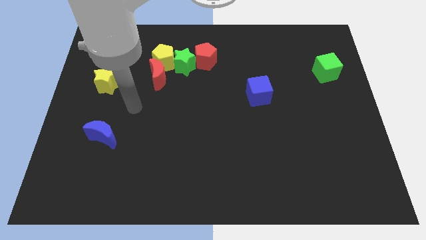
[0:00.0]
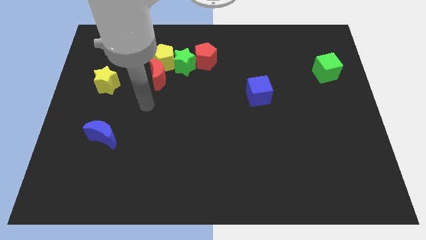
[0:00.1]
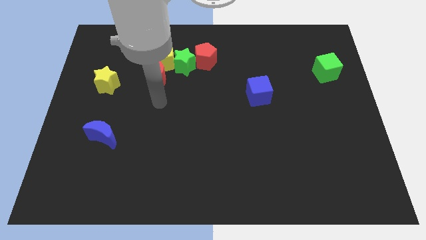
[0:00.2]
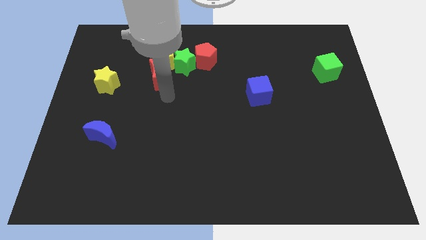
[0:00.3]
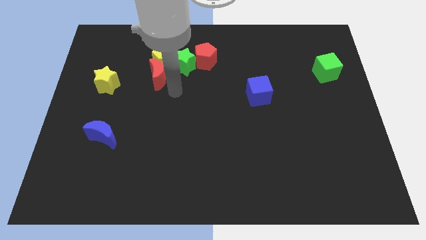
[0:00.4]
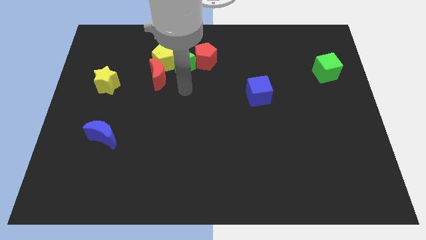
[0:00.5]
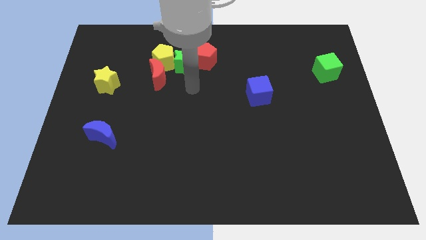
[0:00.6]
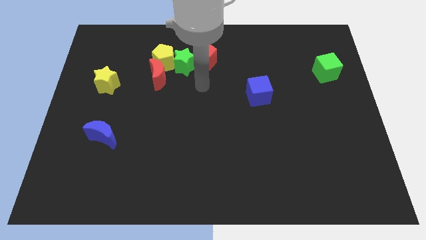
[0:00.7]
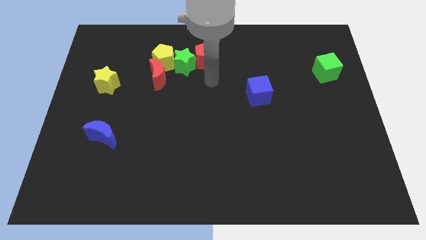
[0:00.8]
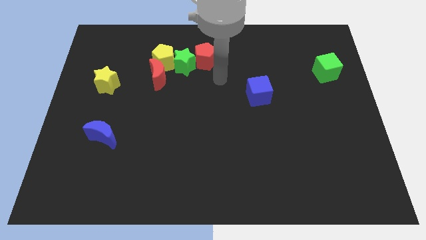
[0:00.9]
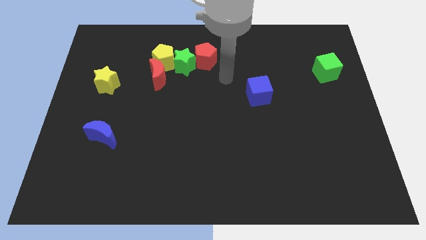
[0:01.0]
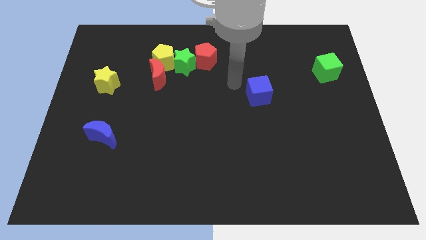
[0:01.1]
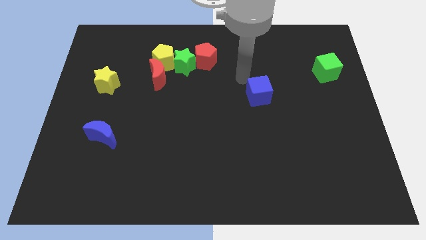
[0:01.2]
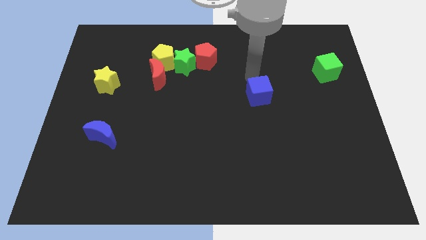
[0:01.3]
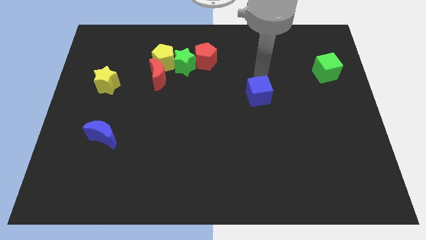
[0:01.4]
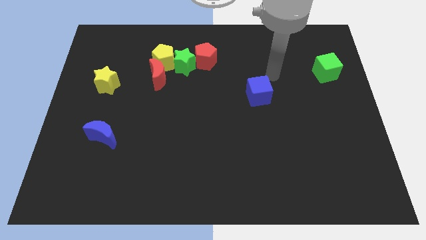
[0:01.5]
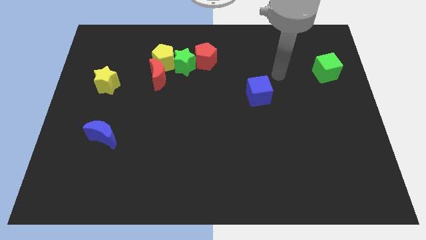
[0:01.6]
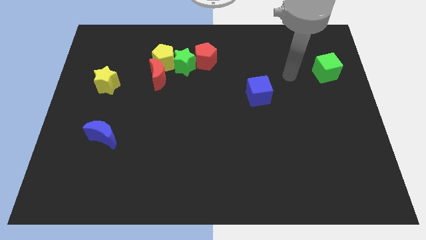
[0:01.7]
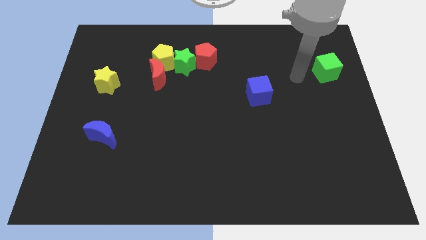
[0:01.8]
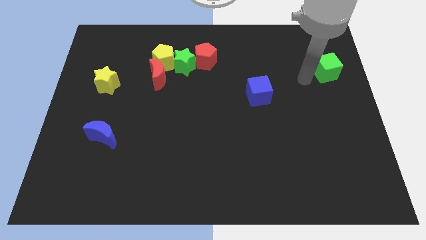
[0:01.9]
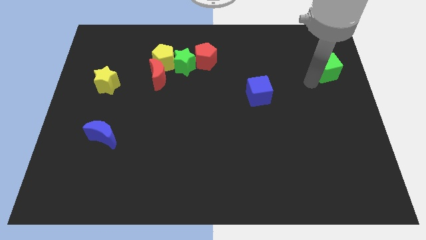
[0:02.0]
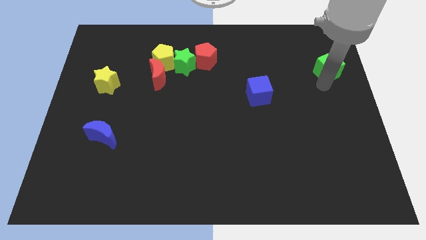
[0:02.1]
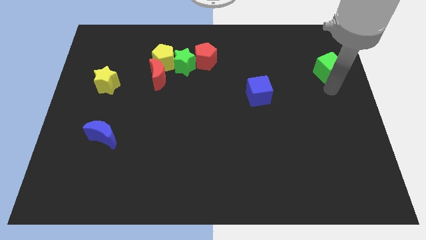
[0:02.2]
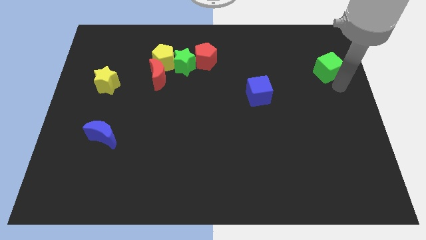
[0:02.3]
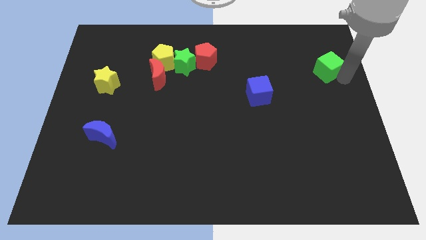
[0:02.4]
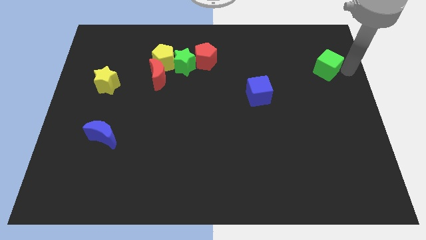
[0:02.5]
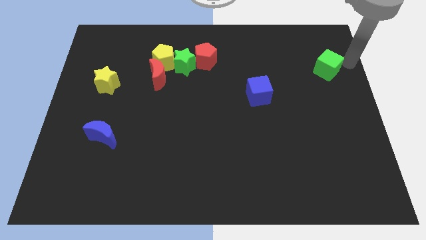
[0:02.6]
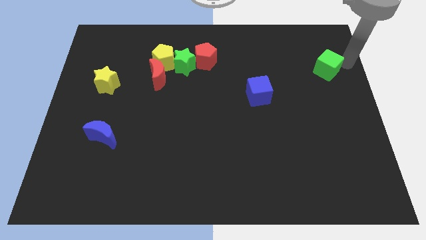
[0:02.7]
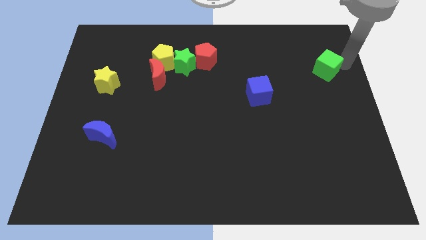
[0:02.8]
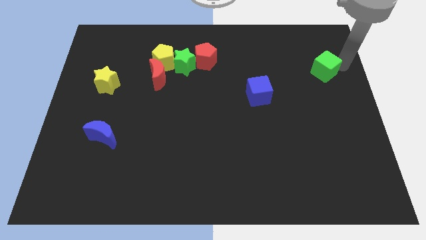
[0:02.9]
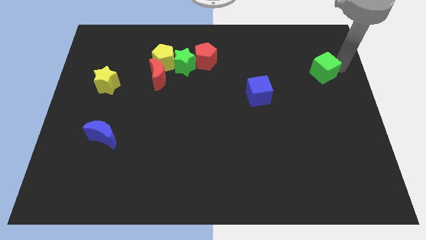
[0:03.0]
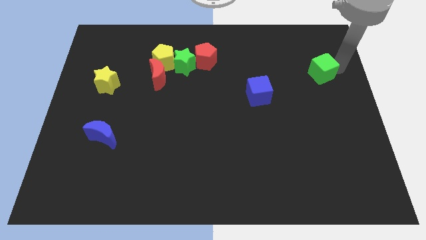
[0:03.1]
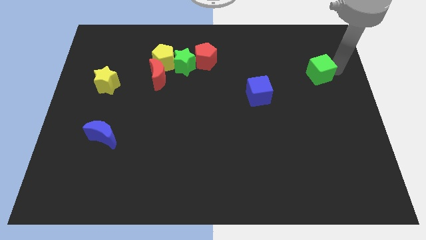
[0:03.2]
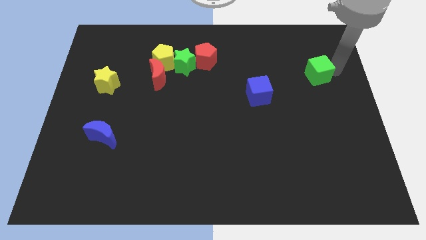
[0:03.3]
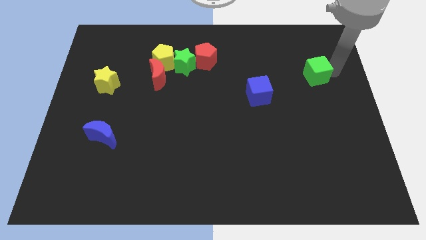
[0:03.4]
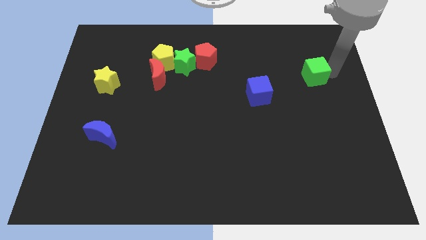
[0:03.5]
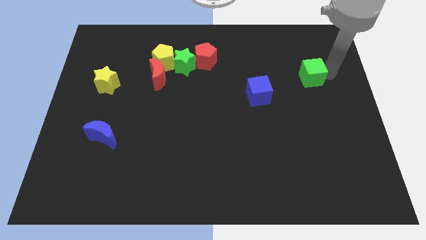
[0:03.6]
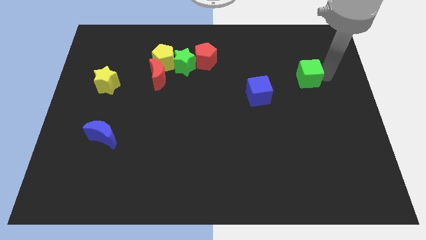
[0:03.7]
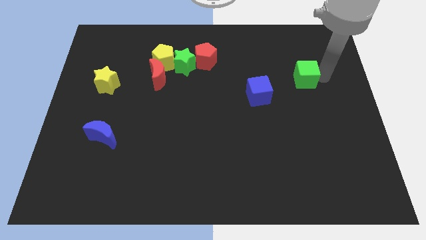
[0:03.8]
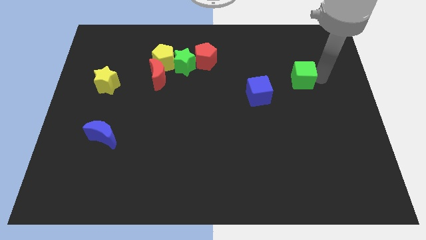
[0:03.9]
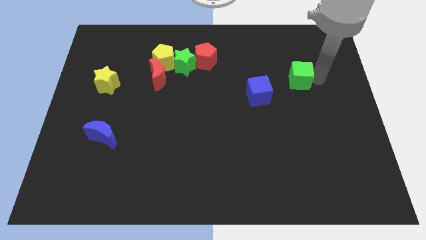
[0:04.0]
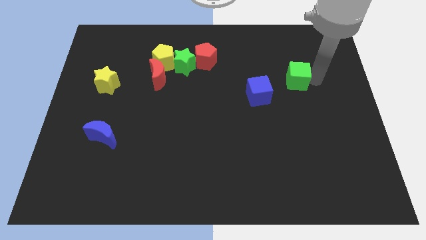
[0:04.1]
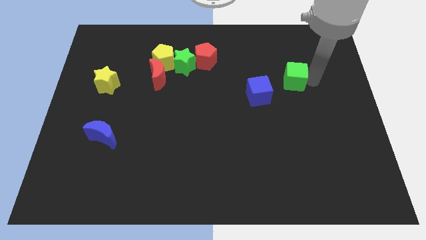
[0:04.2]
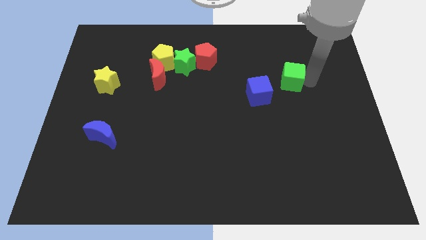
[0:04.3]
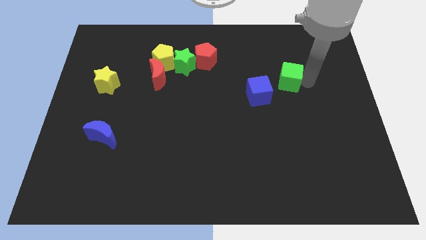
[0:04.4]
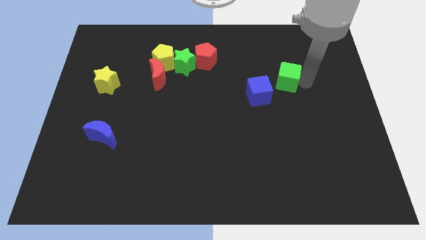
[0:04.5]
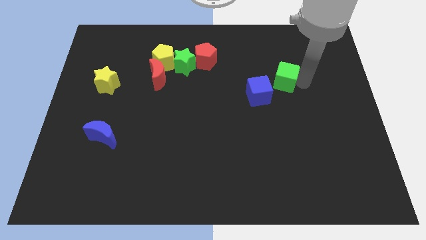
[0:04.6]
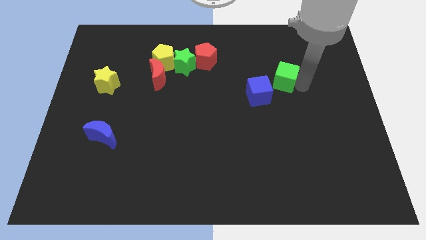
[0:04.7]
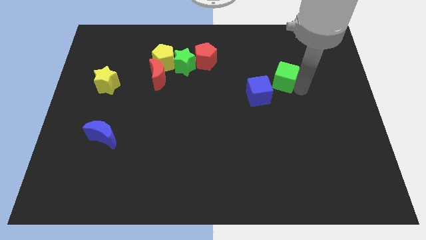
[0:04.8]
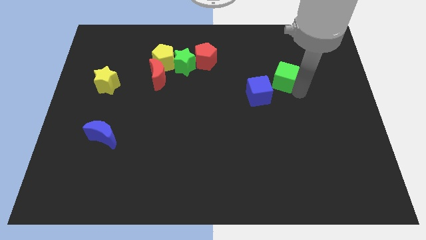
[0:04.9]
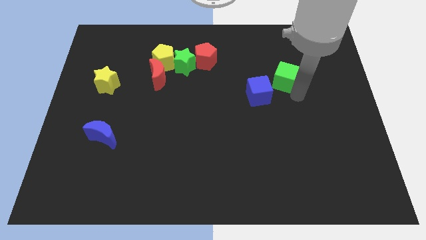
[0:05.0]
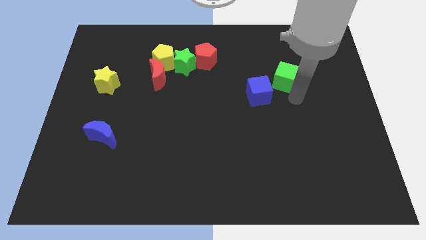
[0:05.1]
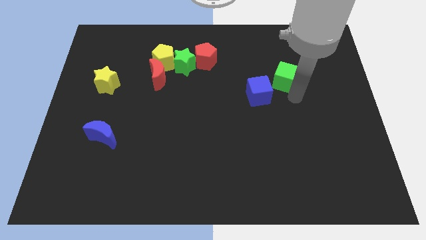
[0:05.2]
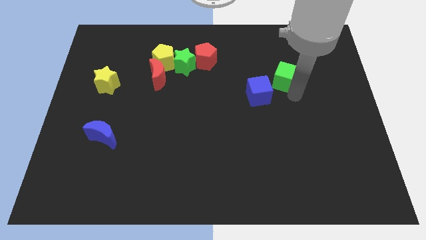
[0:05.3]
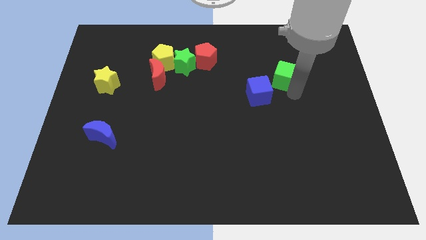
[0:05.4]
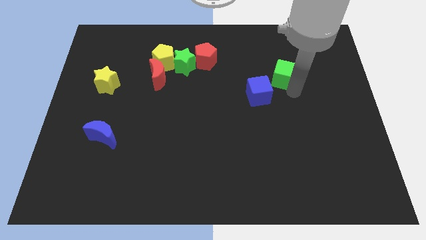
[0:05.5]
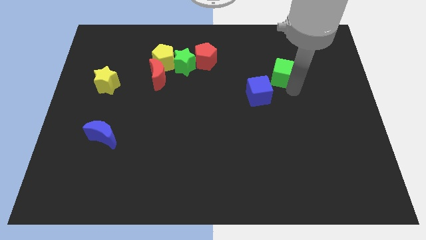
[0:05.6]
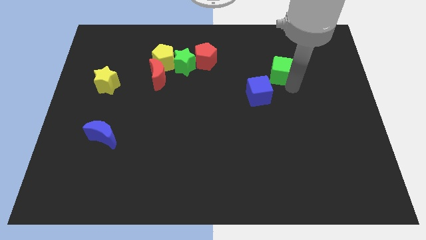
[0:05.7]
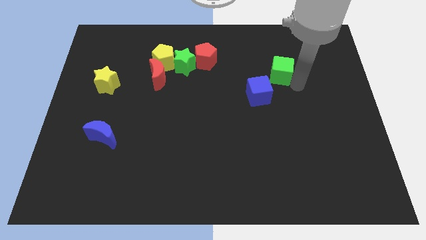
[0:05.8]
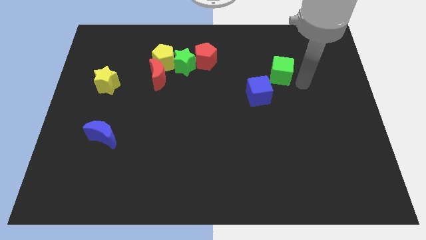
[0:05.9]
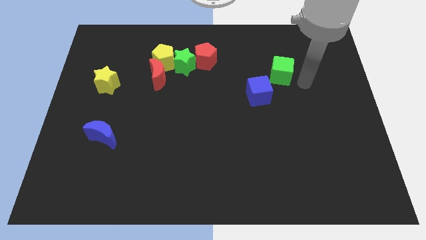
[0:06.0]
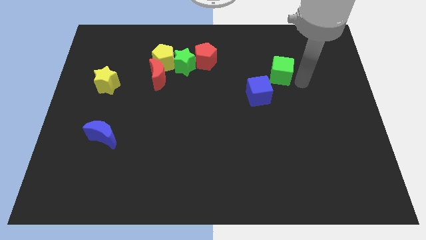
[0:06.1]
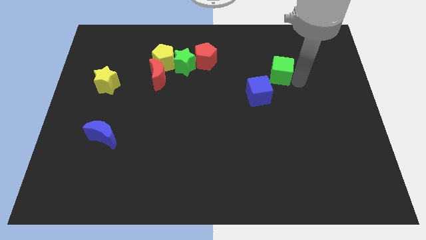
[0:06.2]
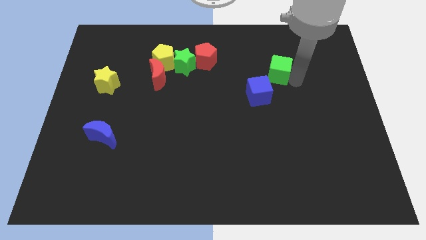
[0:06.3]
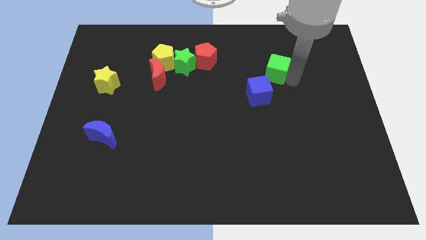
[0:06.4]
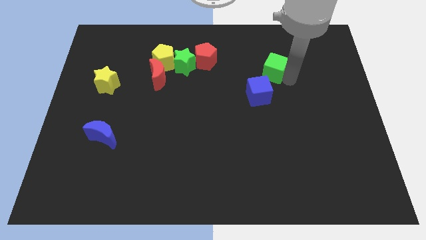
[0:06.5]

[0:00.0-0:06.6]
put the green cube to the top of the blue cube
